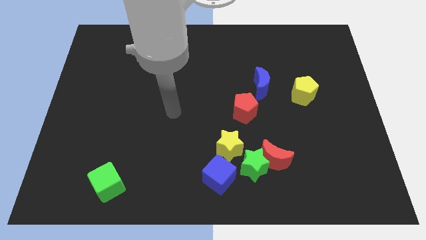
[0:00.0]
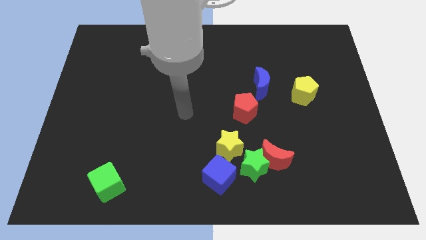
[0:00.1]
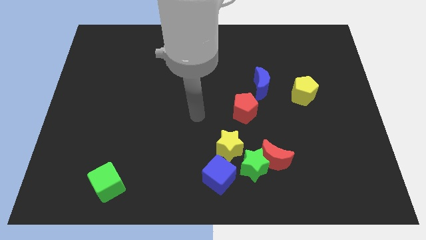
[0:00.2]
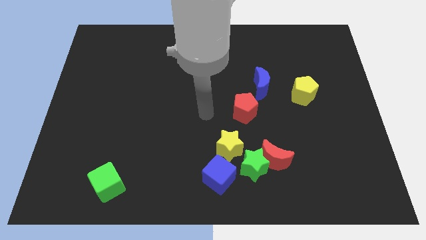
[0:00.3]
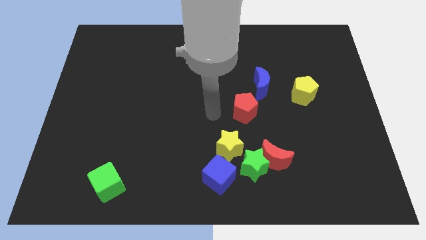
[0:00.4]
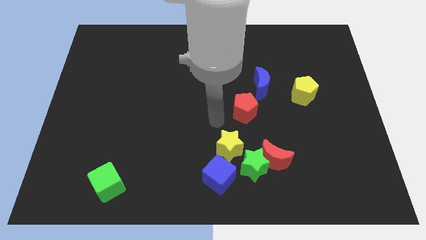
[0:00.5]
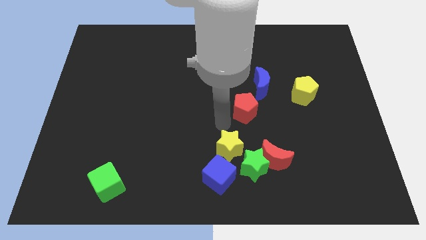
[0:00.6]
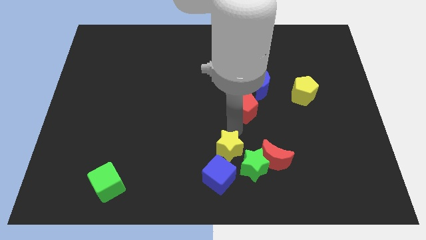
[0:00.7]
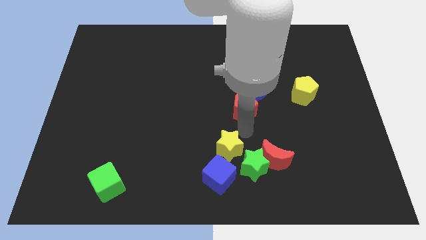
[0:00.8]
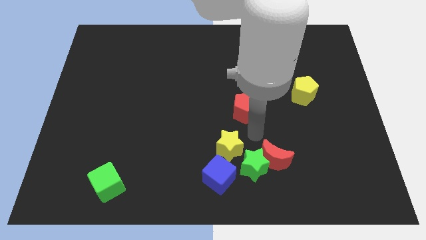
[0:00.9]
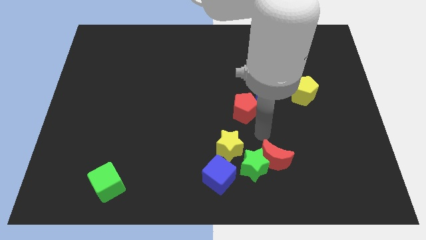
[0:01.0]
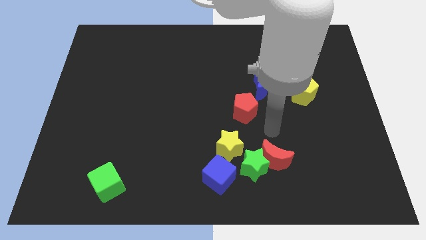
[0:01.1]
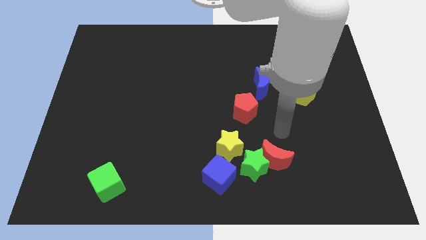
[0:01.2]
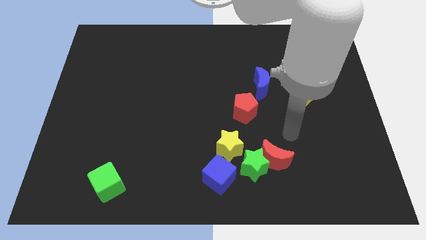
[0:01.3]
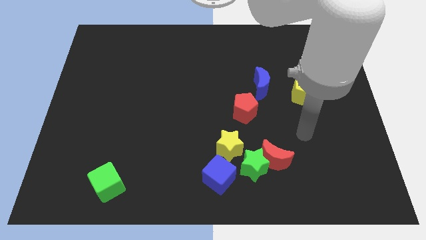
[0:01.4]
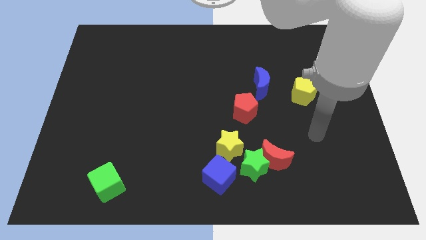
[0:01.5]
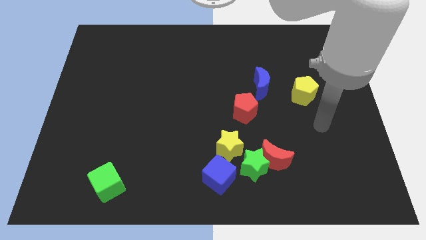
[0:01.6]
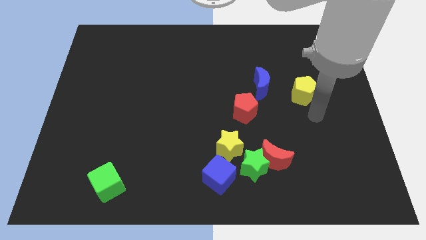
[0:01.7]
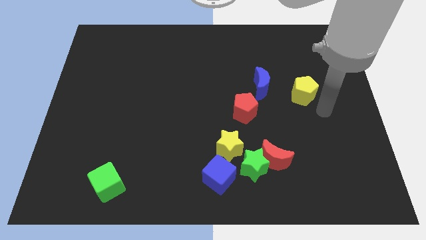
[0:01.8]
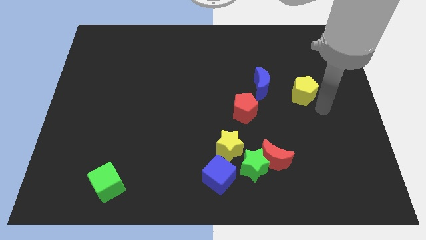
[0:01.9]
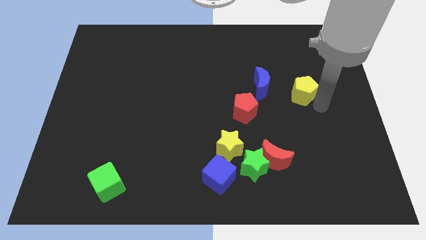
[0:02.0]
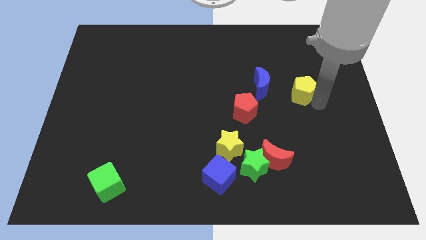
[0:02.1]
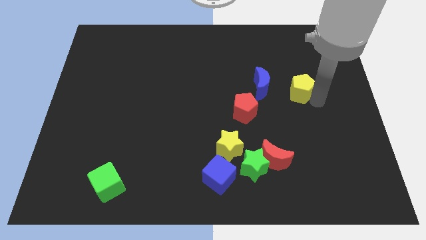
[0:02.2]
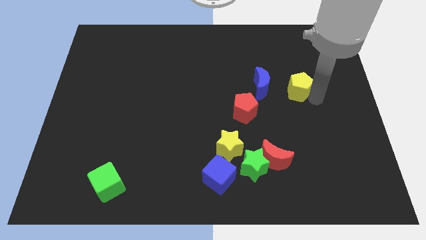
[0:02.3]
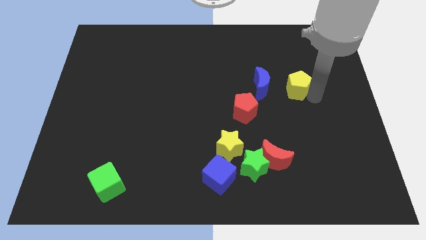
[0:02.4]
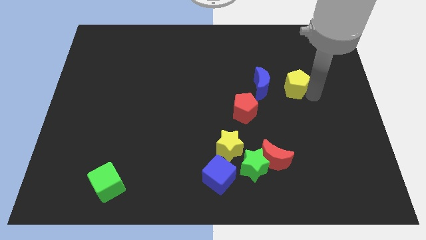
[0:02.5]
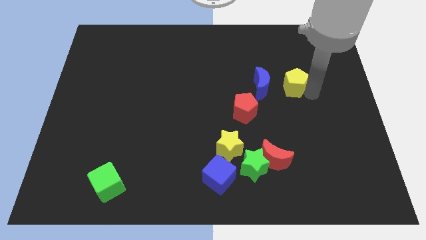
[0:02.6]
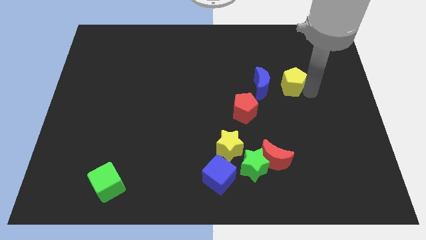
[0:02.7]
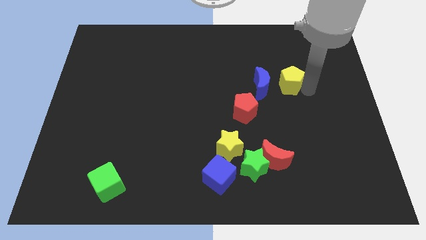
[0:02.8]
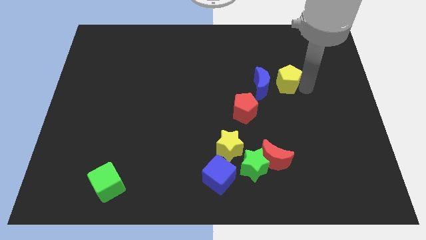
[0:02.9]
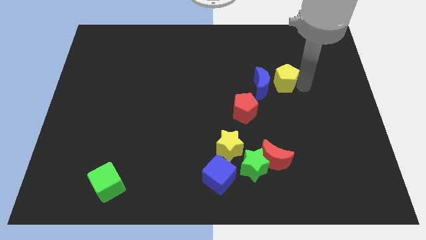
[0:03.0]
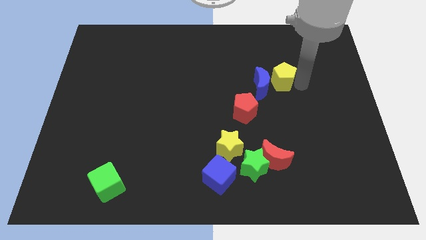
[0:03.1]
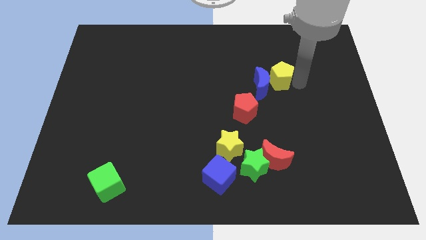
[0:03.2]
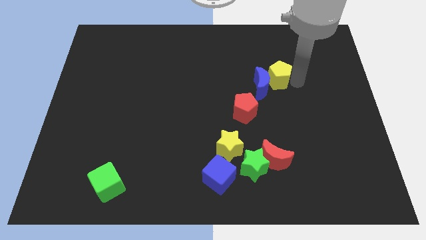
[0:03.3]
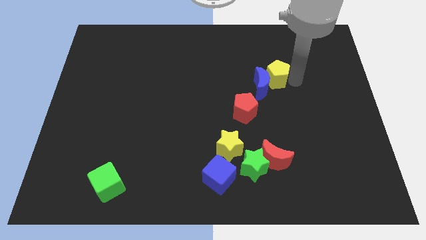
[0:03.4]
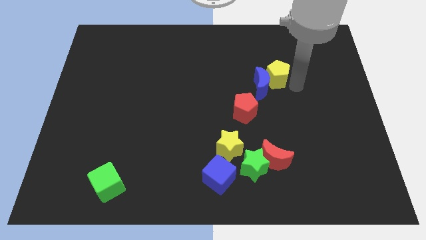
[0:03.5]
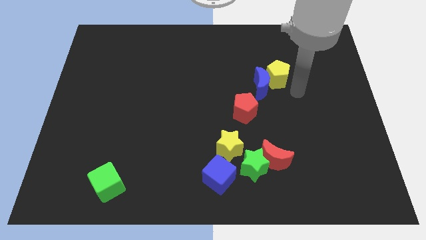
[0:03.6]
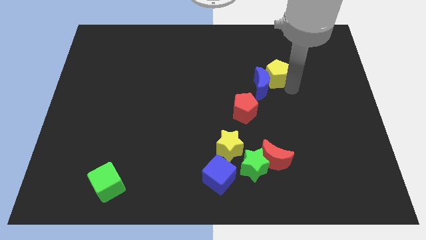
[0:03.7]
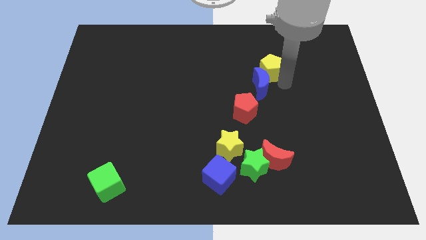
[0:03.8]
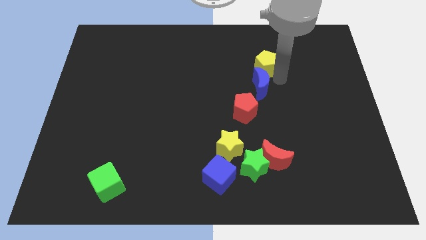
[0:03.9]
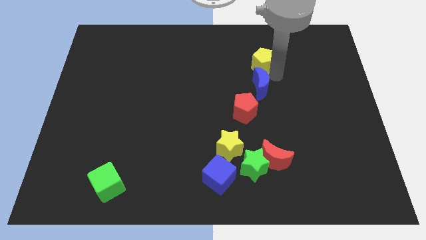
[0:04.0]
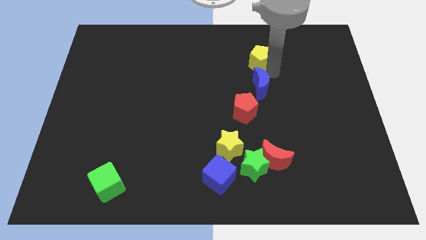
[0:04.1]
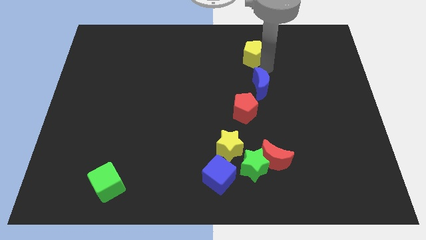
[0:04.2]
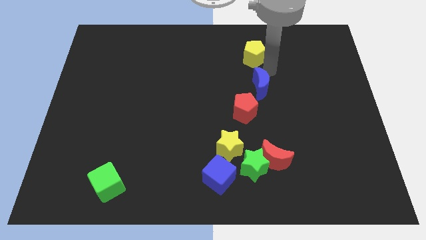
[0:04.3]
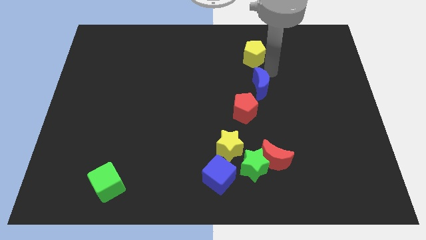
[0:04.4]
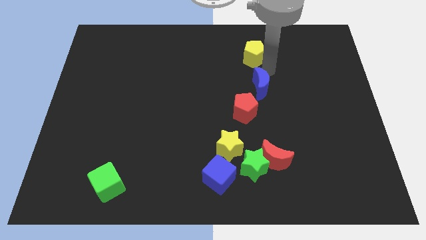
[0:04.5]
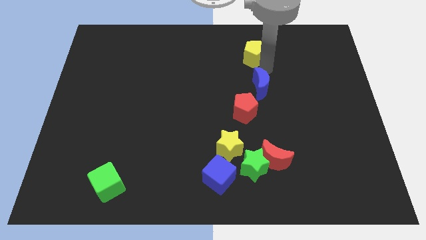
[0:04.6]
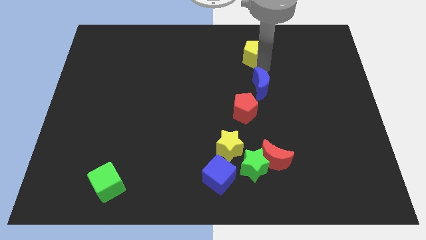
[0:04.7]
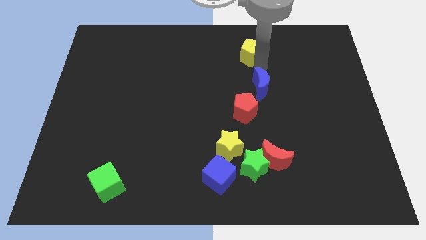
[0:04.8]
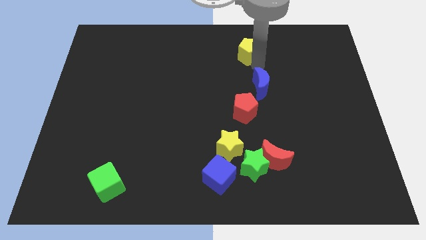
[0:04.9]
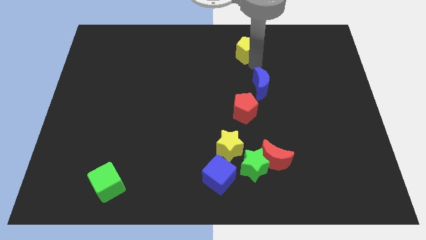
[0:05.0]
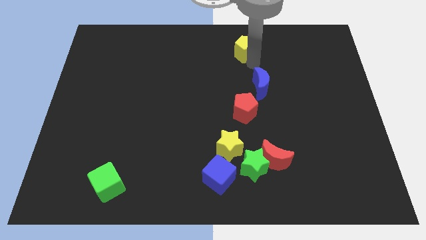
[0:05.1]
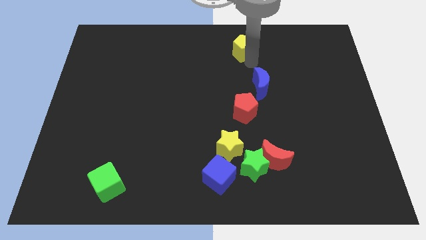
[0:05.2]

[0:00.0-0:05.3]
slide the yellow pentagon to the top

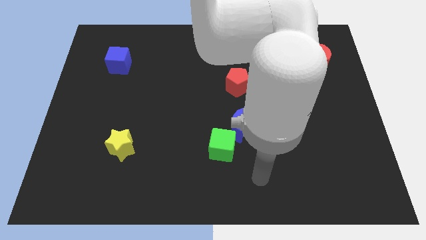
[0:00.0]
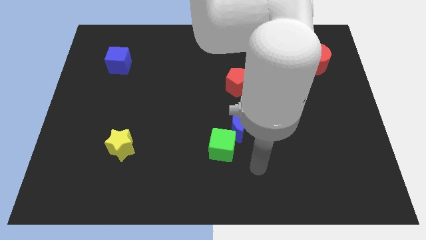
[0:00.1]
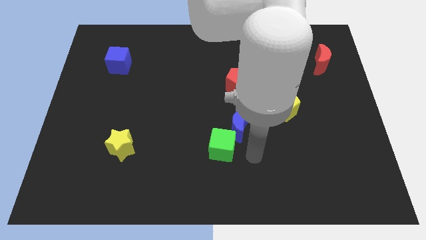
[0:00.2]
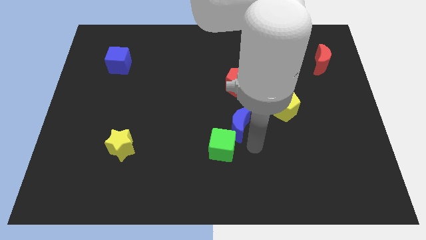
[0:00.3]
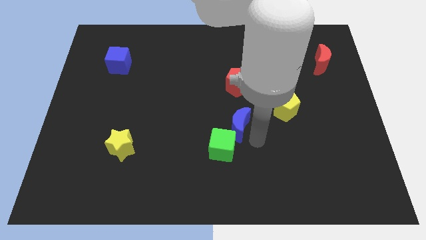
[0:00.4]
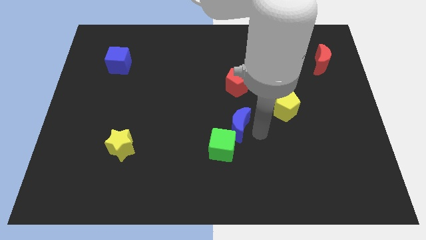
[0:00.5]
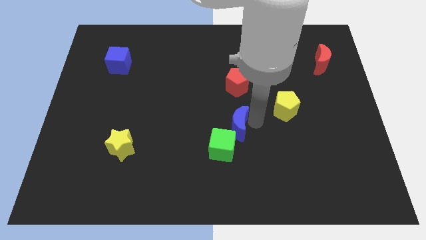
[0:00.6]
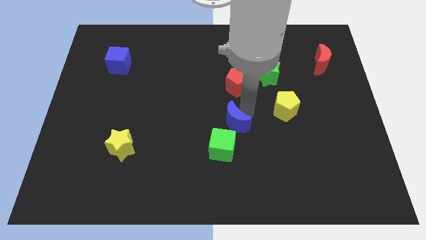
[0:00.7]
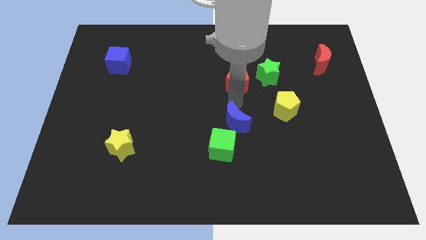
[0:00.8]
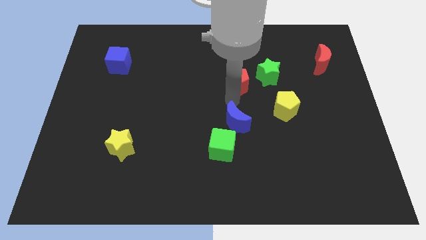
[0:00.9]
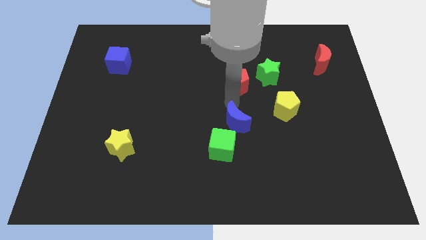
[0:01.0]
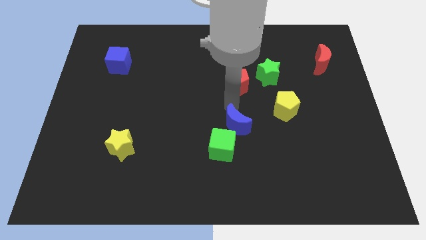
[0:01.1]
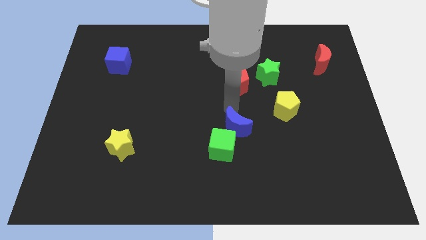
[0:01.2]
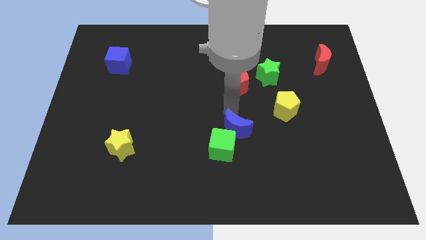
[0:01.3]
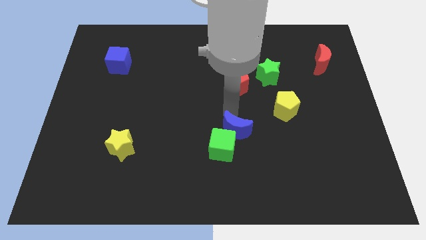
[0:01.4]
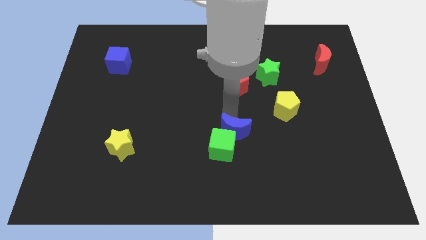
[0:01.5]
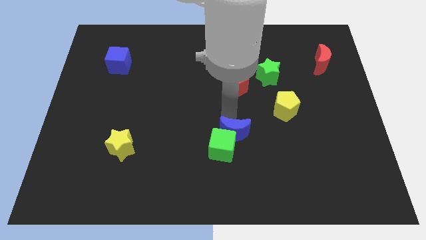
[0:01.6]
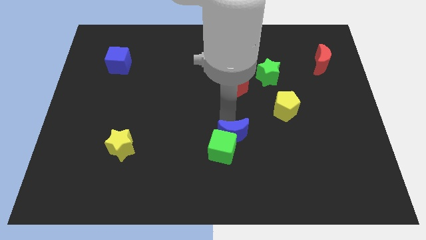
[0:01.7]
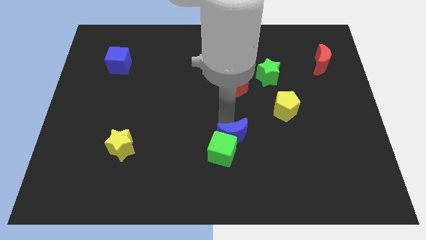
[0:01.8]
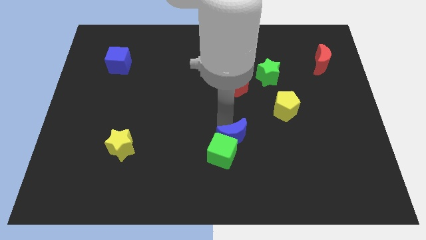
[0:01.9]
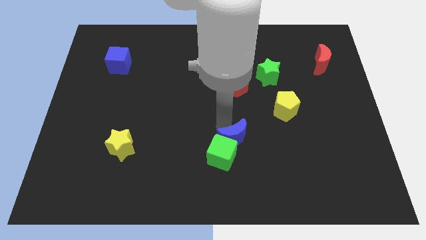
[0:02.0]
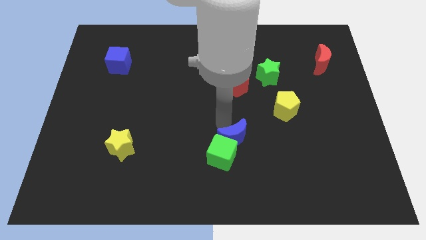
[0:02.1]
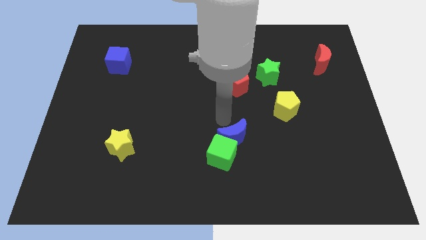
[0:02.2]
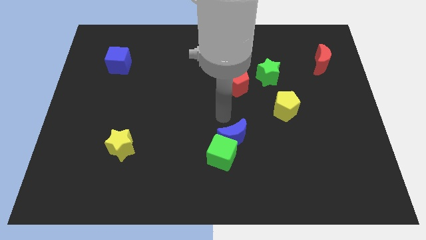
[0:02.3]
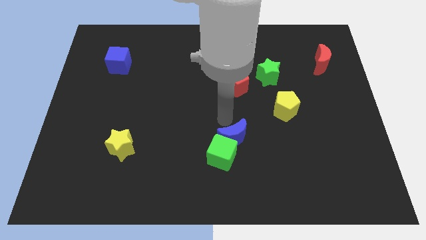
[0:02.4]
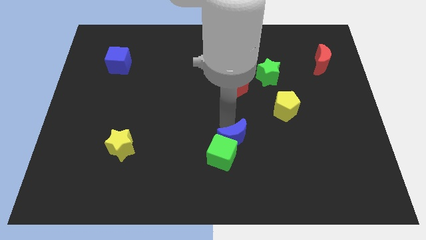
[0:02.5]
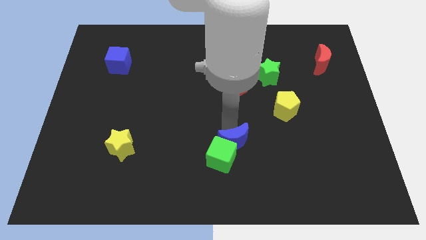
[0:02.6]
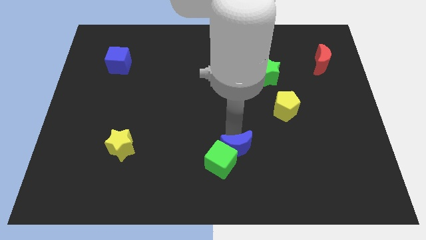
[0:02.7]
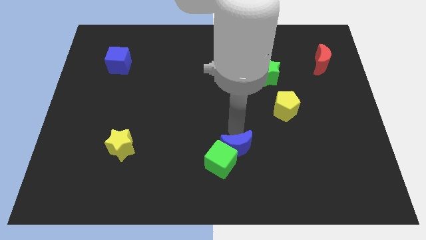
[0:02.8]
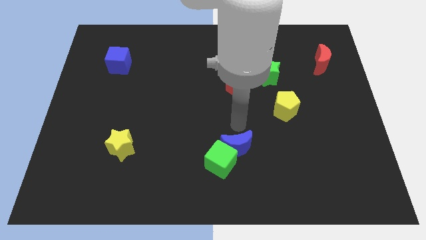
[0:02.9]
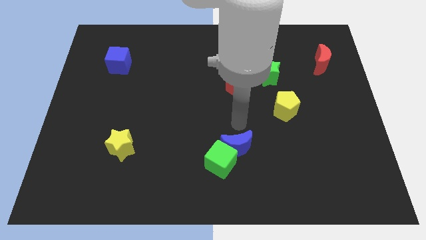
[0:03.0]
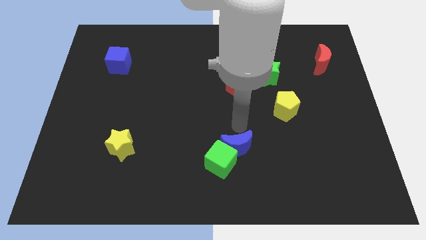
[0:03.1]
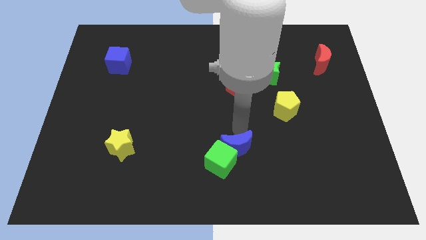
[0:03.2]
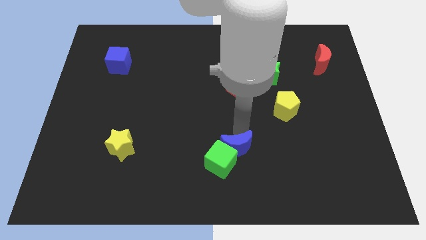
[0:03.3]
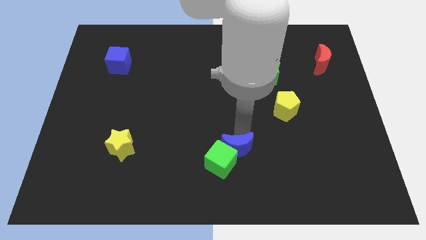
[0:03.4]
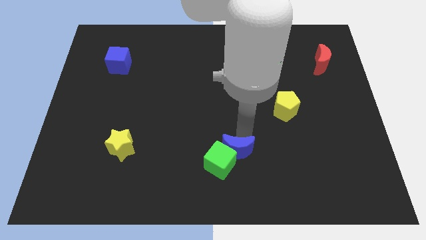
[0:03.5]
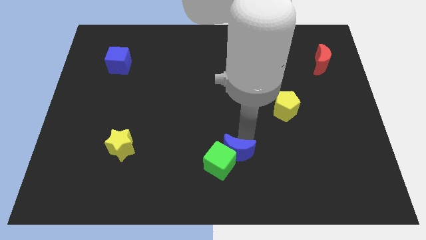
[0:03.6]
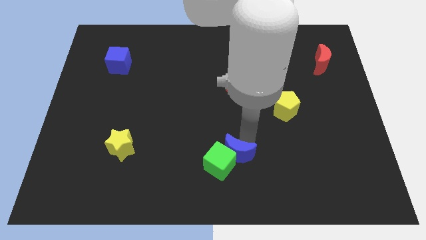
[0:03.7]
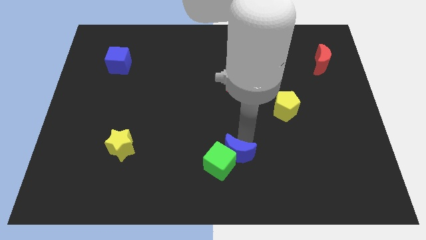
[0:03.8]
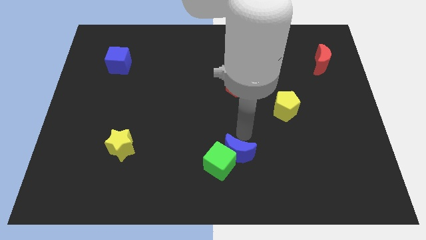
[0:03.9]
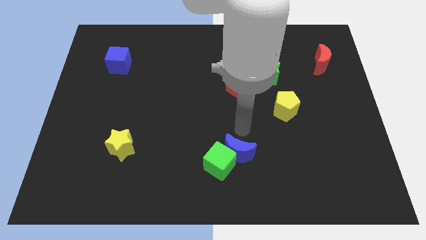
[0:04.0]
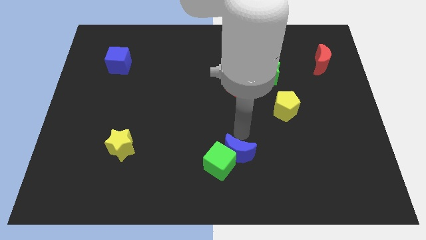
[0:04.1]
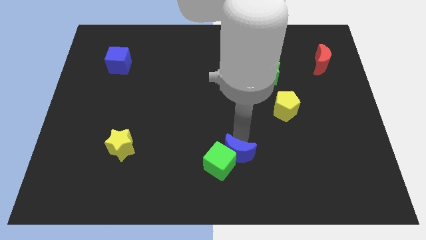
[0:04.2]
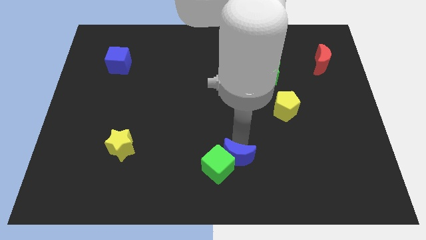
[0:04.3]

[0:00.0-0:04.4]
push the blue moon to the bottom
